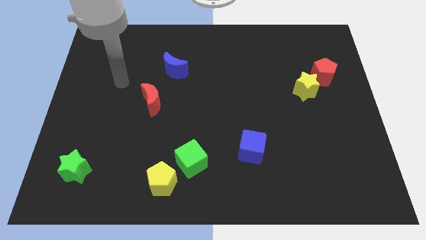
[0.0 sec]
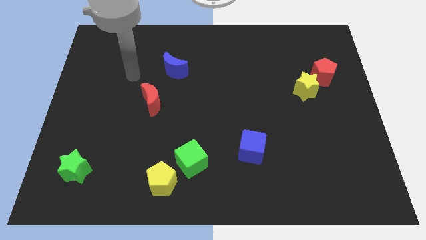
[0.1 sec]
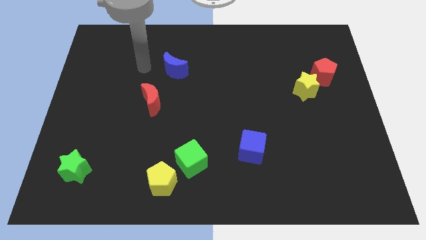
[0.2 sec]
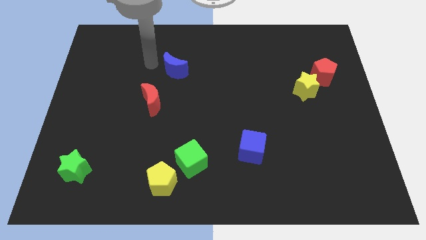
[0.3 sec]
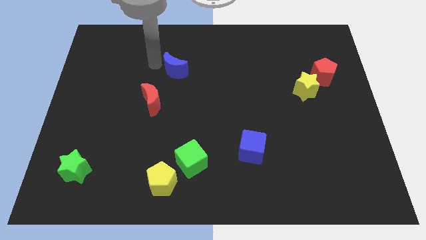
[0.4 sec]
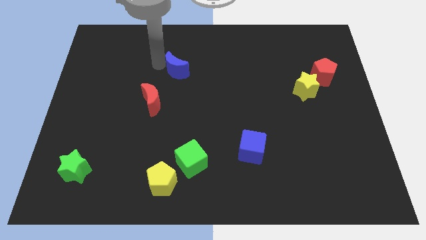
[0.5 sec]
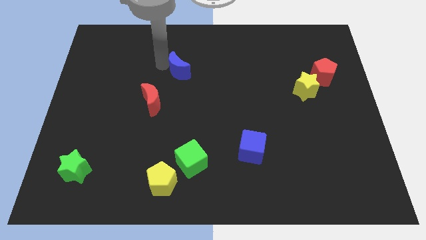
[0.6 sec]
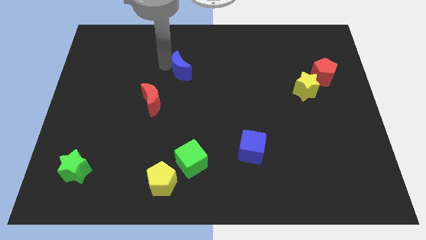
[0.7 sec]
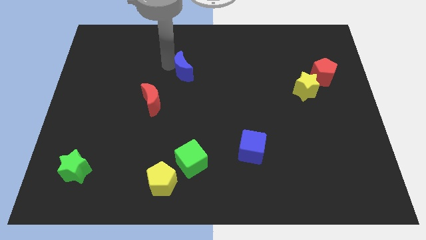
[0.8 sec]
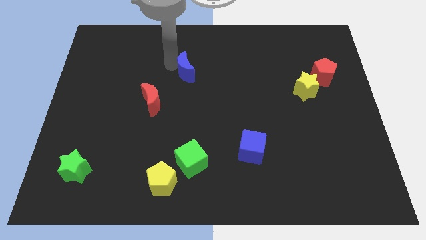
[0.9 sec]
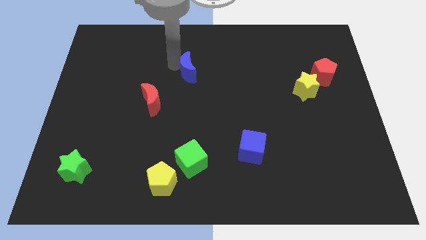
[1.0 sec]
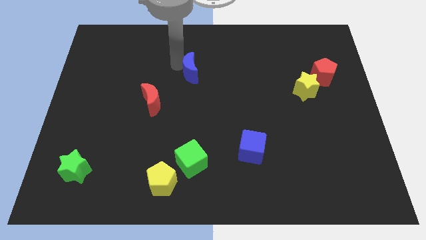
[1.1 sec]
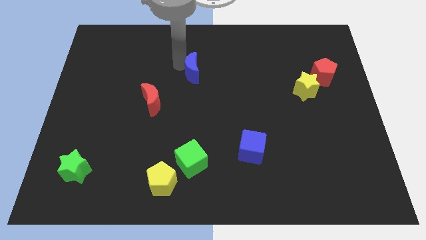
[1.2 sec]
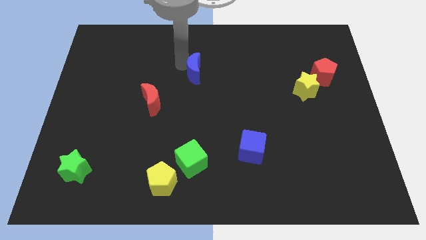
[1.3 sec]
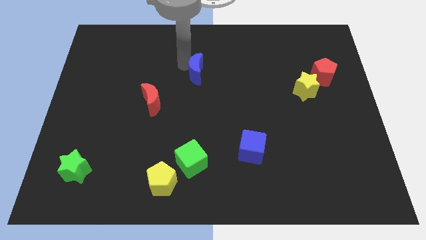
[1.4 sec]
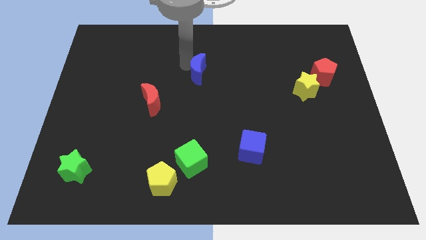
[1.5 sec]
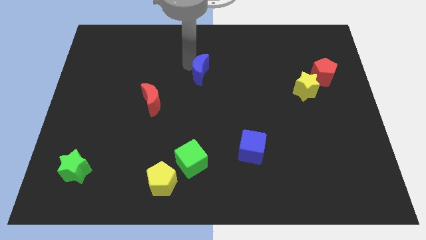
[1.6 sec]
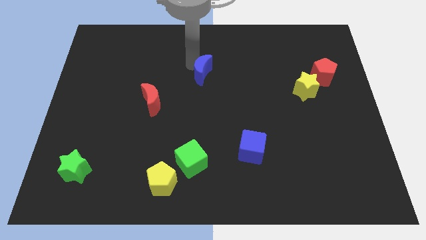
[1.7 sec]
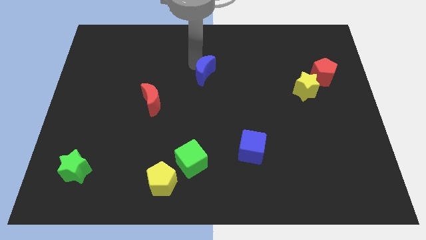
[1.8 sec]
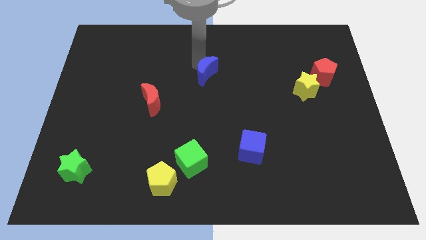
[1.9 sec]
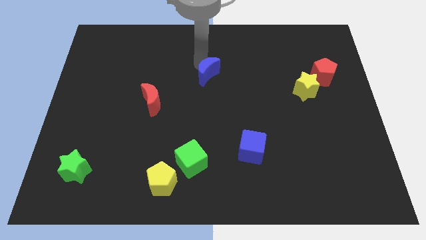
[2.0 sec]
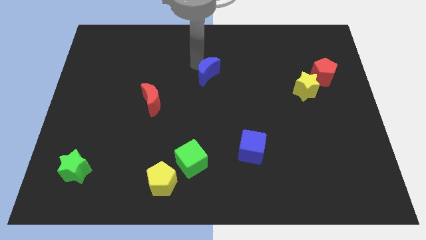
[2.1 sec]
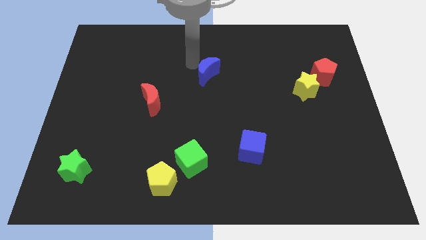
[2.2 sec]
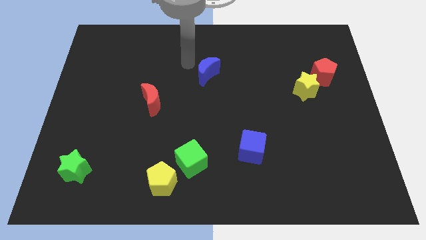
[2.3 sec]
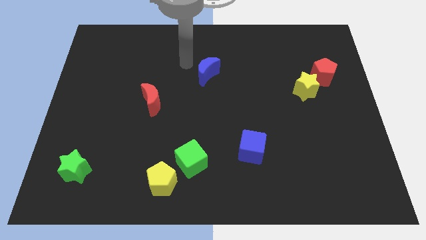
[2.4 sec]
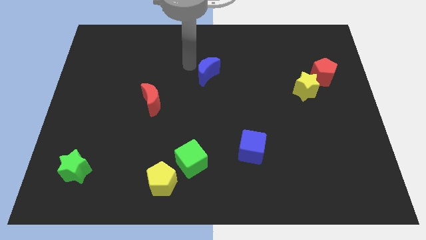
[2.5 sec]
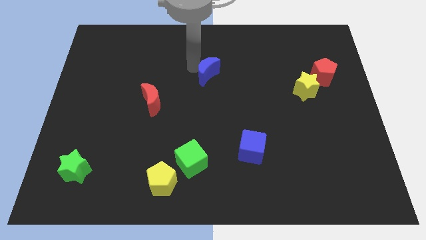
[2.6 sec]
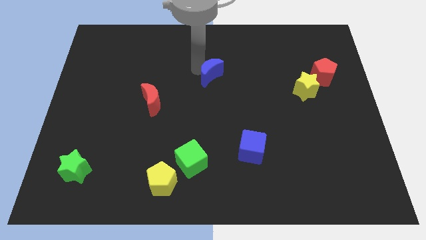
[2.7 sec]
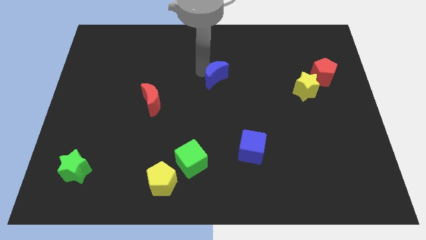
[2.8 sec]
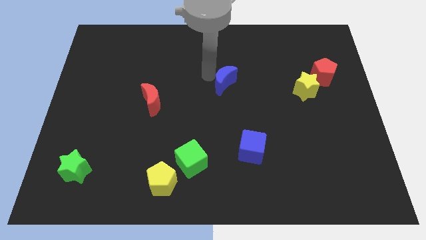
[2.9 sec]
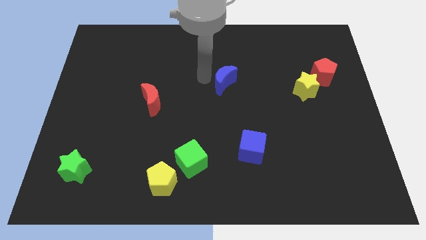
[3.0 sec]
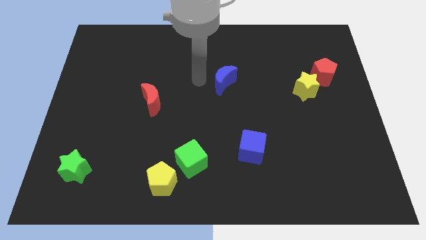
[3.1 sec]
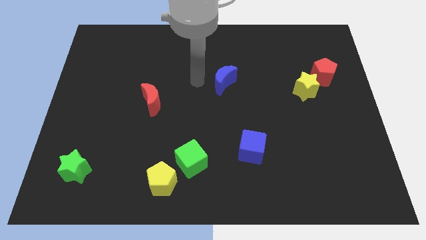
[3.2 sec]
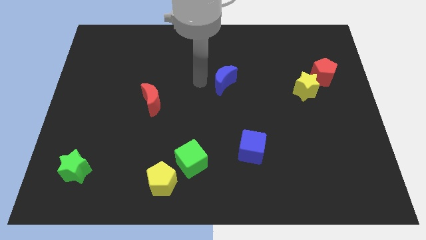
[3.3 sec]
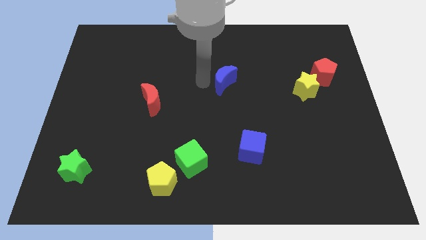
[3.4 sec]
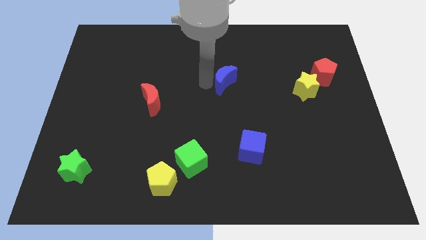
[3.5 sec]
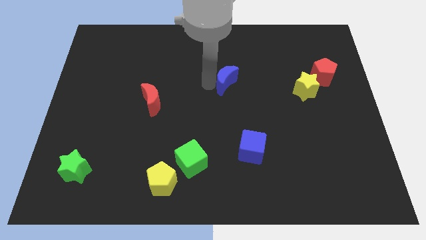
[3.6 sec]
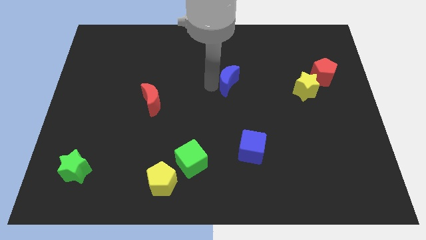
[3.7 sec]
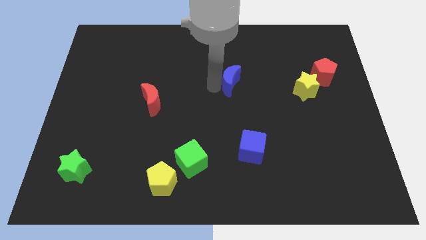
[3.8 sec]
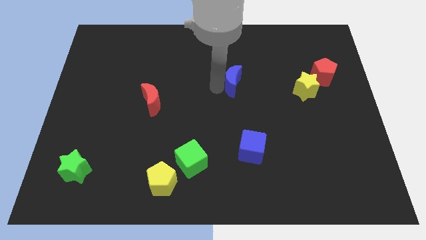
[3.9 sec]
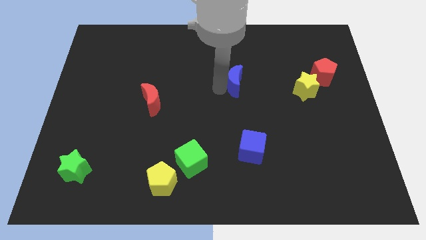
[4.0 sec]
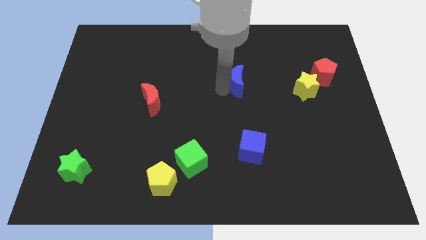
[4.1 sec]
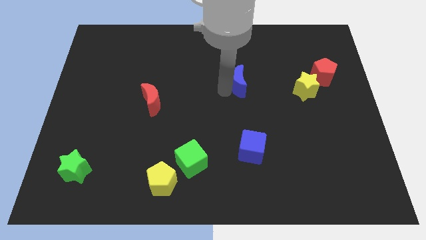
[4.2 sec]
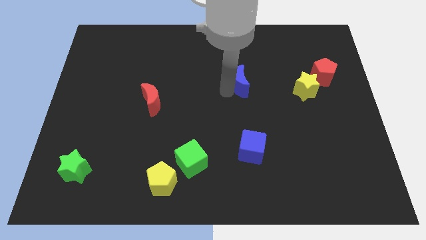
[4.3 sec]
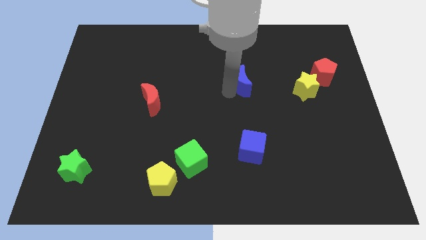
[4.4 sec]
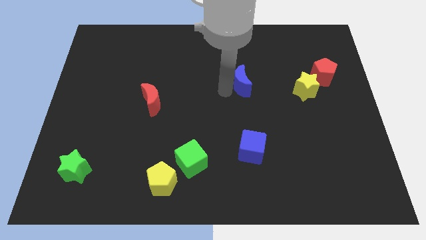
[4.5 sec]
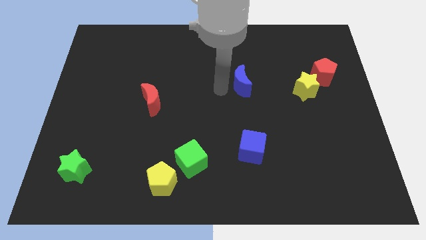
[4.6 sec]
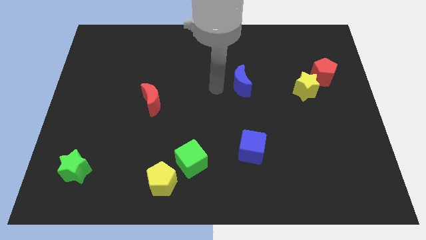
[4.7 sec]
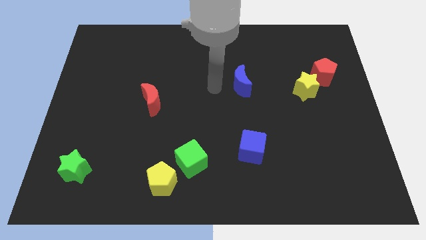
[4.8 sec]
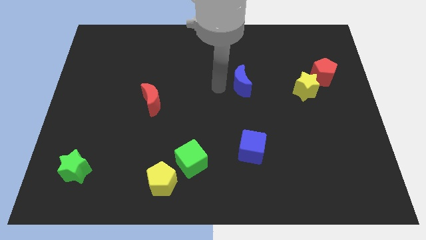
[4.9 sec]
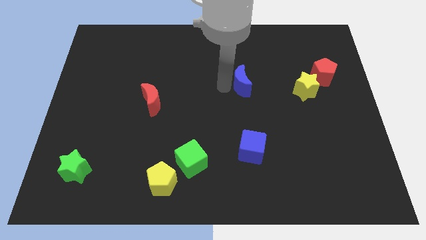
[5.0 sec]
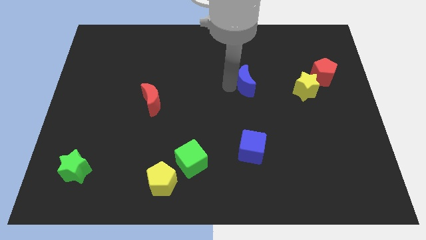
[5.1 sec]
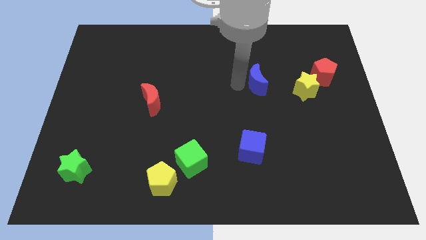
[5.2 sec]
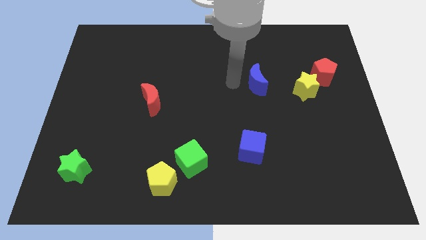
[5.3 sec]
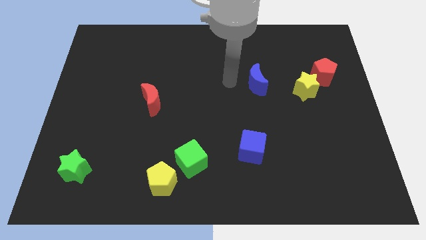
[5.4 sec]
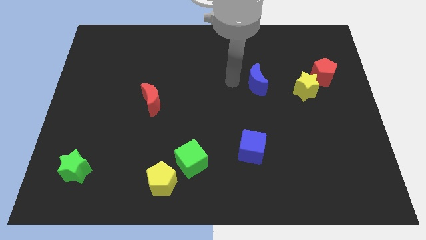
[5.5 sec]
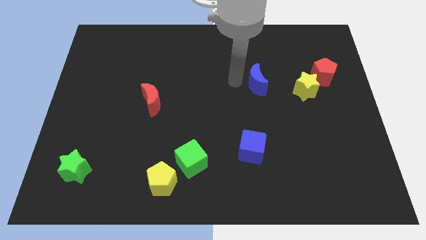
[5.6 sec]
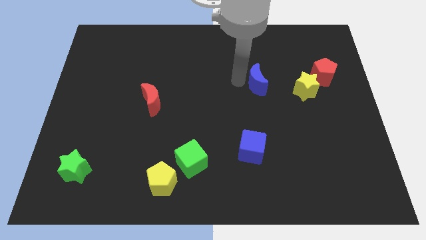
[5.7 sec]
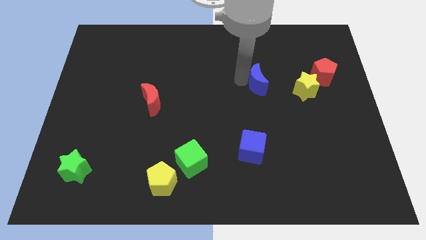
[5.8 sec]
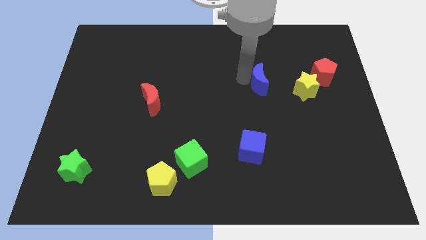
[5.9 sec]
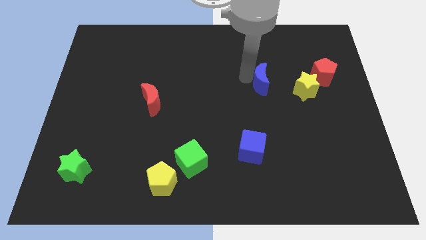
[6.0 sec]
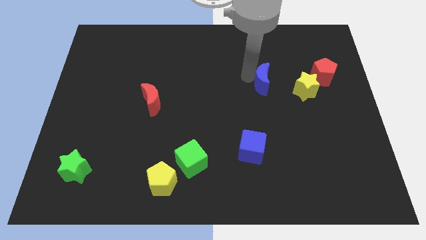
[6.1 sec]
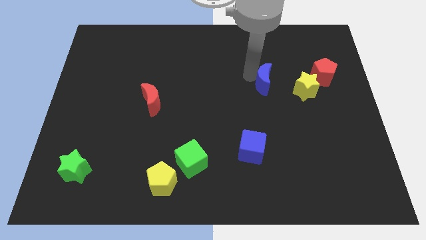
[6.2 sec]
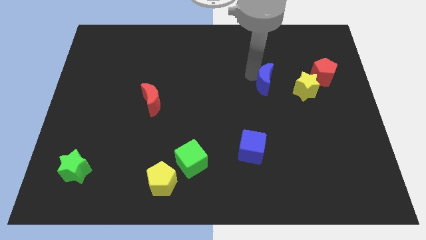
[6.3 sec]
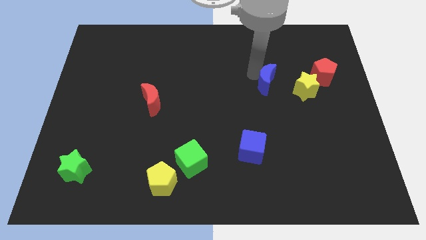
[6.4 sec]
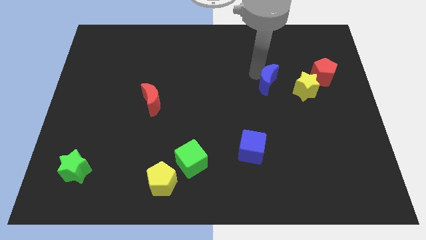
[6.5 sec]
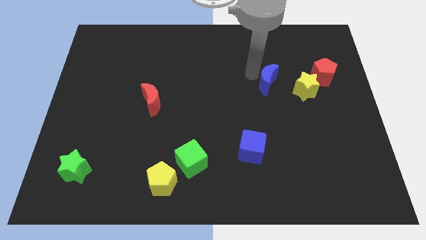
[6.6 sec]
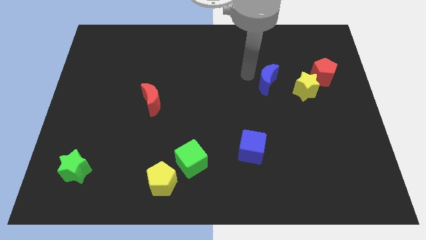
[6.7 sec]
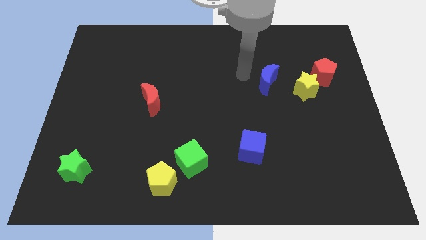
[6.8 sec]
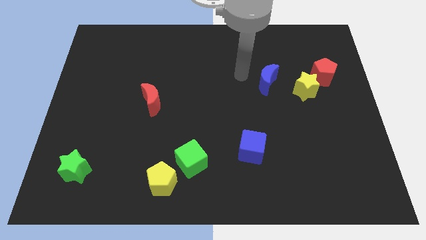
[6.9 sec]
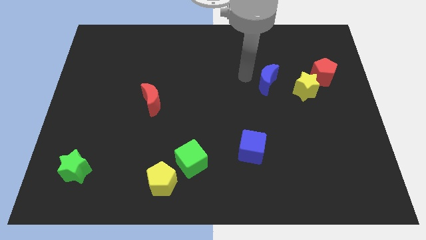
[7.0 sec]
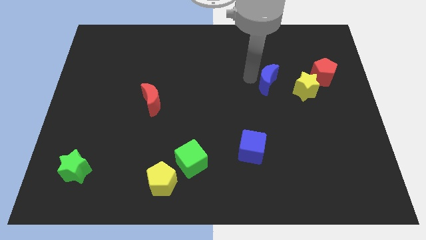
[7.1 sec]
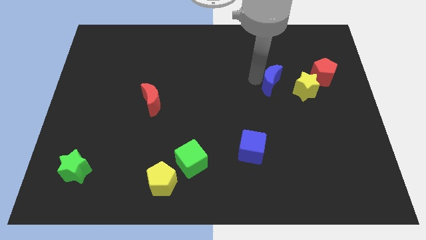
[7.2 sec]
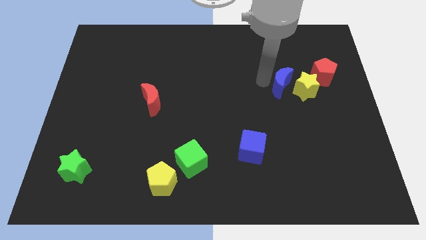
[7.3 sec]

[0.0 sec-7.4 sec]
slide the blue moon close to the yellow star

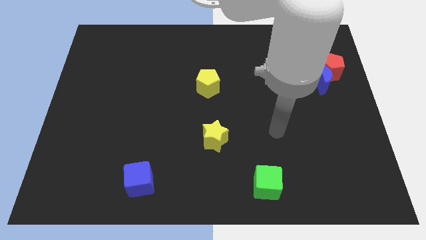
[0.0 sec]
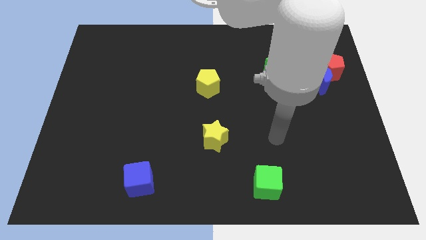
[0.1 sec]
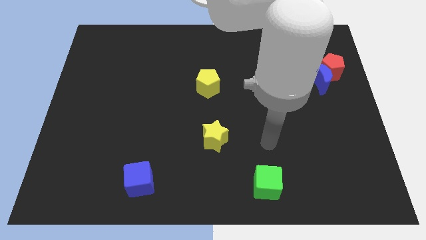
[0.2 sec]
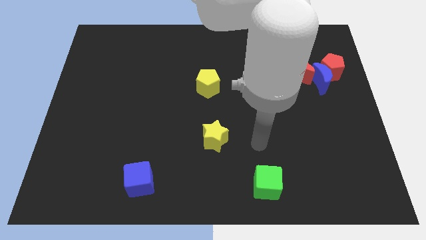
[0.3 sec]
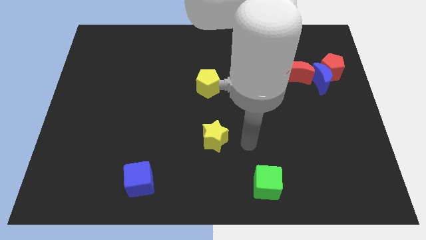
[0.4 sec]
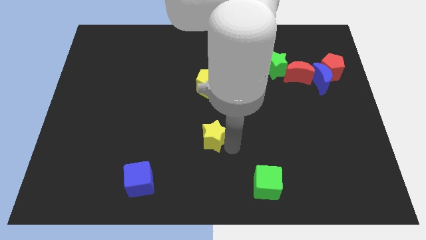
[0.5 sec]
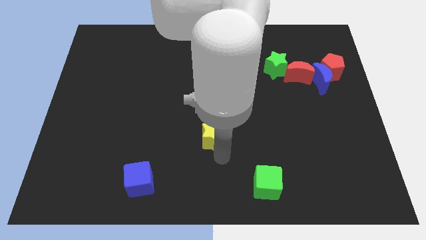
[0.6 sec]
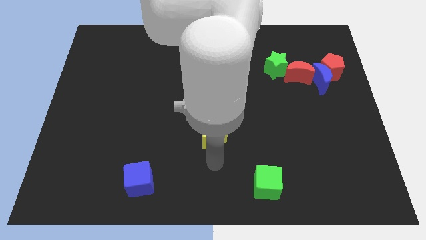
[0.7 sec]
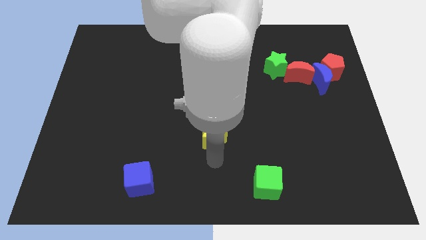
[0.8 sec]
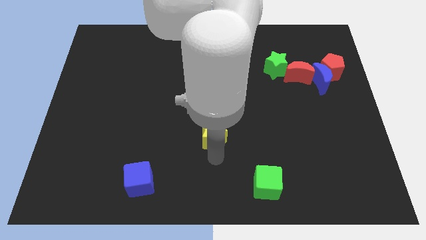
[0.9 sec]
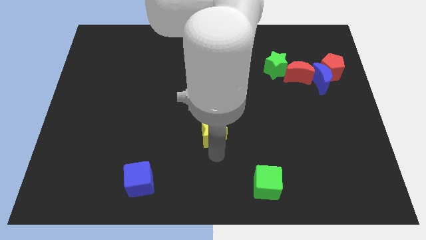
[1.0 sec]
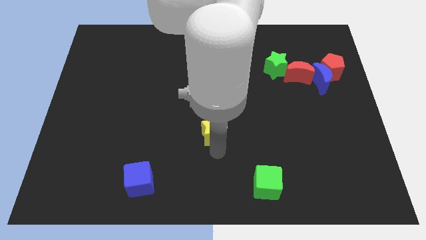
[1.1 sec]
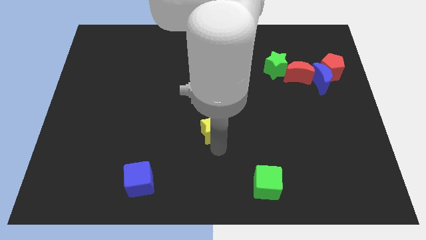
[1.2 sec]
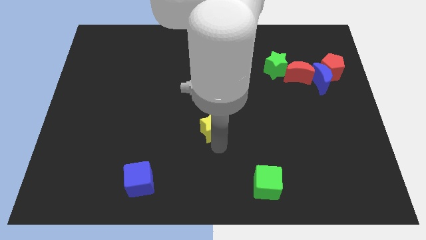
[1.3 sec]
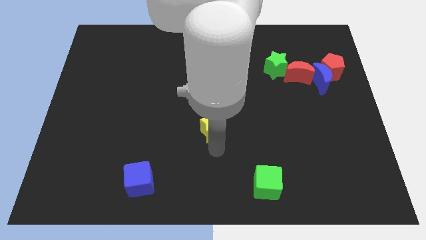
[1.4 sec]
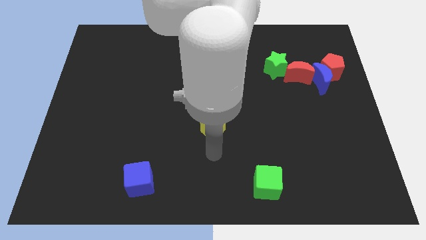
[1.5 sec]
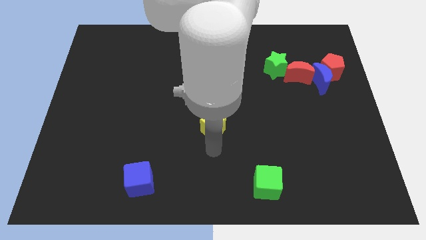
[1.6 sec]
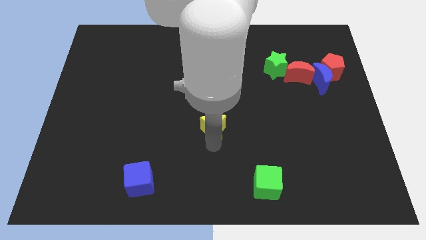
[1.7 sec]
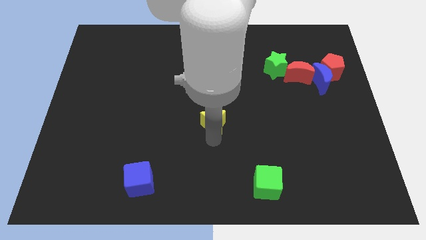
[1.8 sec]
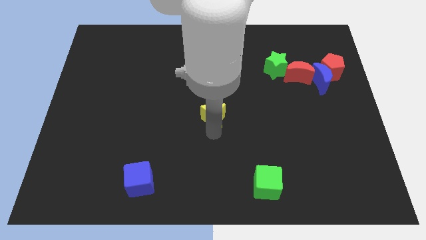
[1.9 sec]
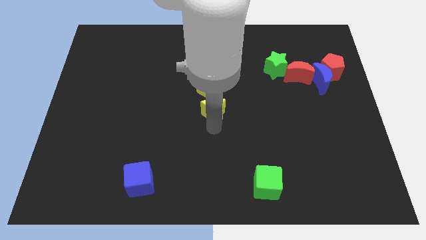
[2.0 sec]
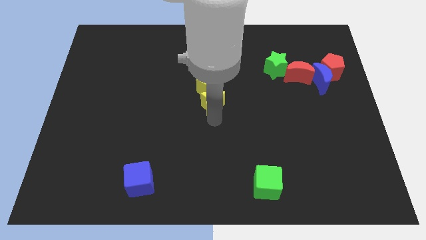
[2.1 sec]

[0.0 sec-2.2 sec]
push the yellow star close to the yellow pentagon
